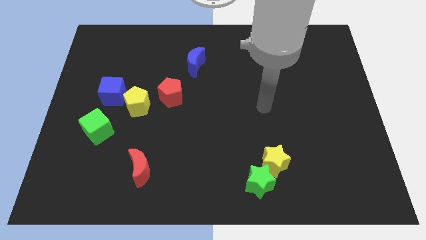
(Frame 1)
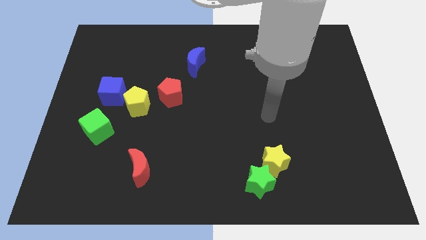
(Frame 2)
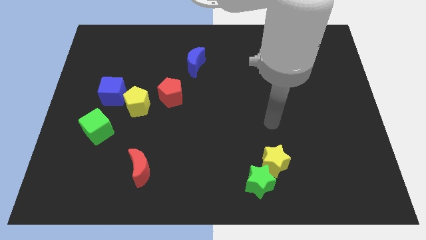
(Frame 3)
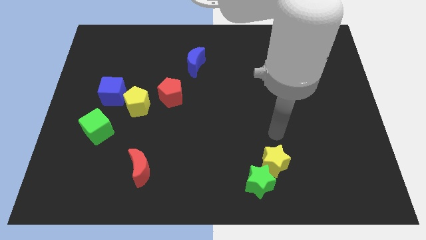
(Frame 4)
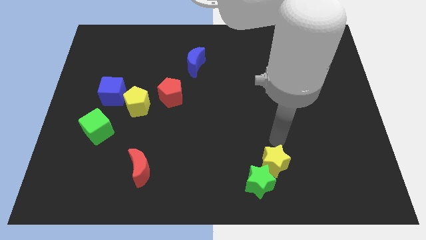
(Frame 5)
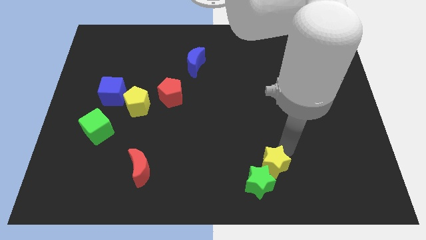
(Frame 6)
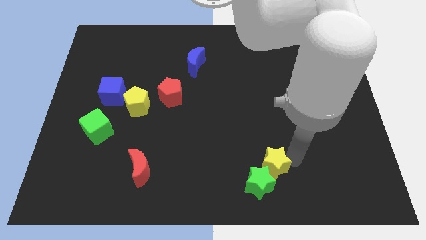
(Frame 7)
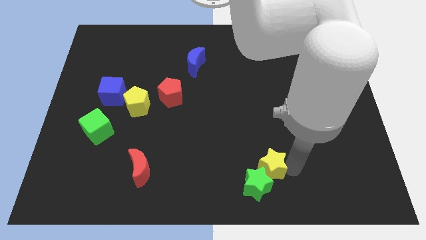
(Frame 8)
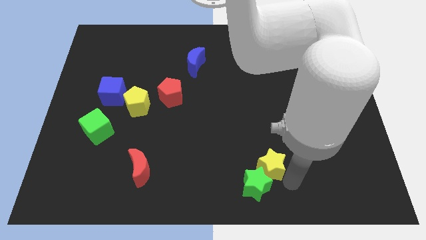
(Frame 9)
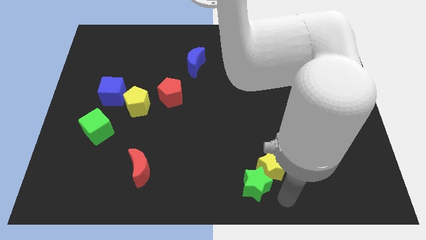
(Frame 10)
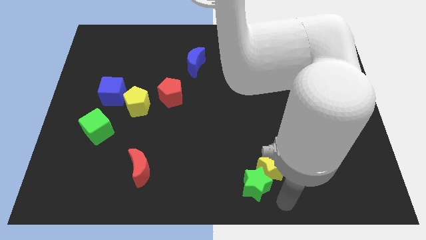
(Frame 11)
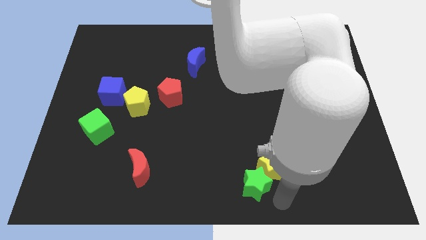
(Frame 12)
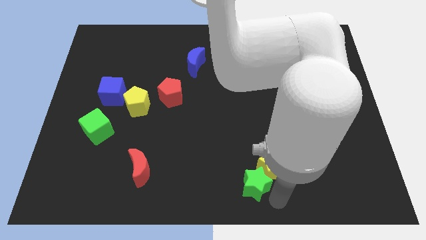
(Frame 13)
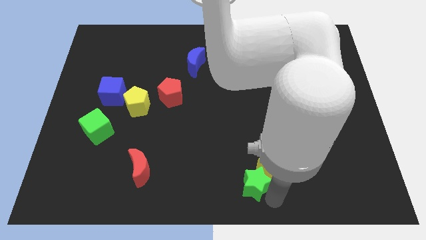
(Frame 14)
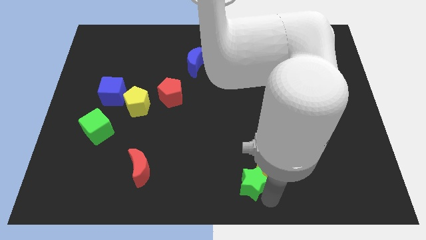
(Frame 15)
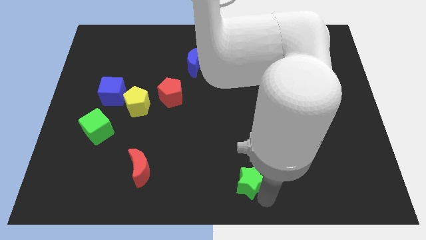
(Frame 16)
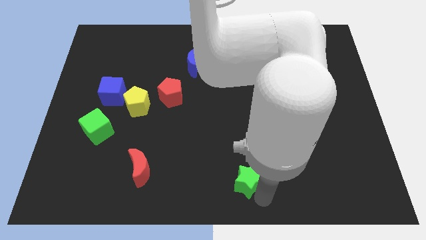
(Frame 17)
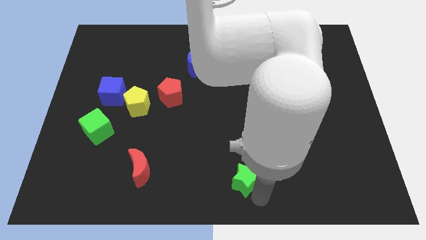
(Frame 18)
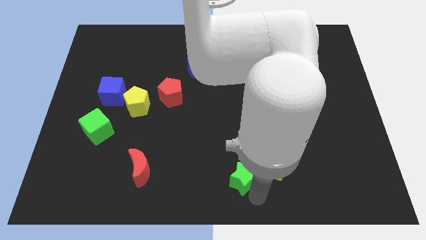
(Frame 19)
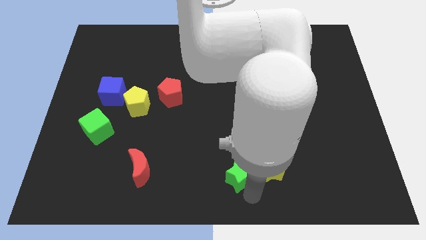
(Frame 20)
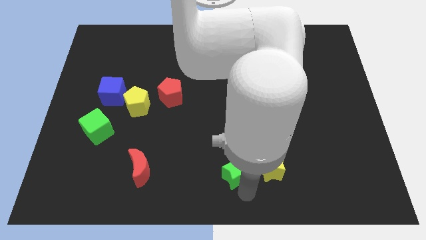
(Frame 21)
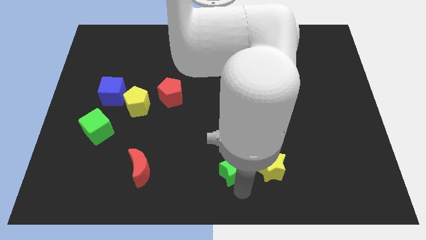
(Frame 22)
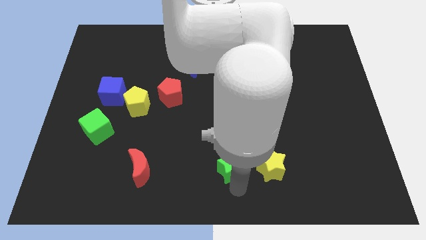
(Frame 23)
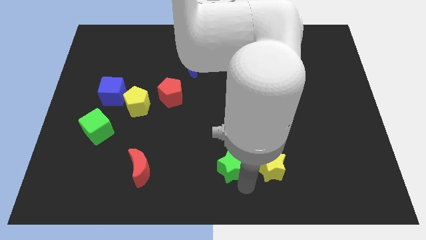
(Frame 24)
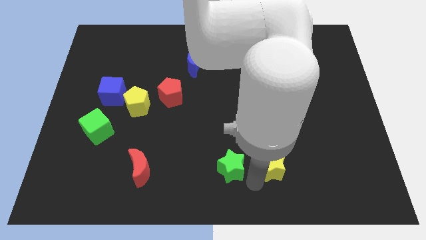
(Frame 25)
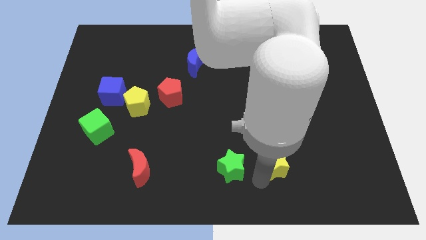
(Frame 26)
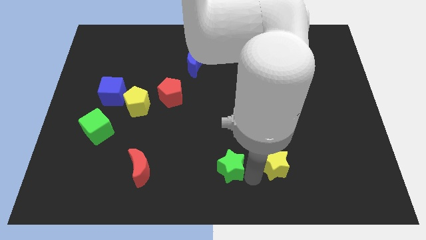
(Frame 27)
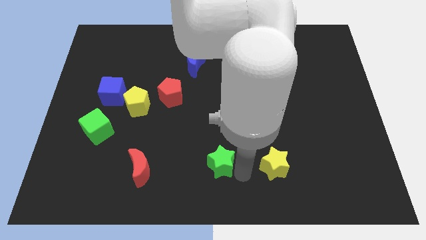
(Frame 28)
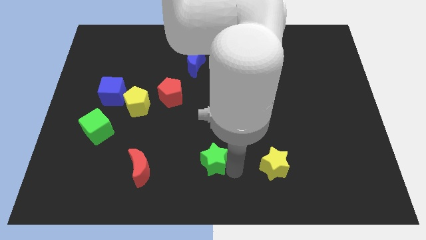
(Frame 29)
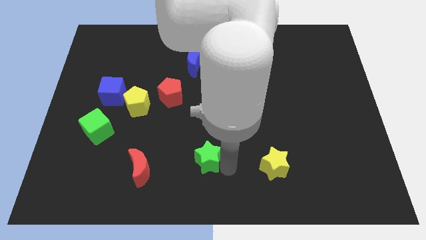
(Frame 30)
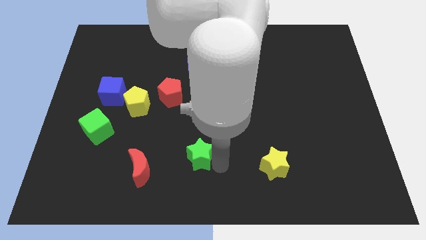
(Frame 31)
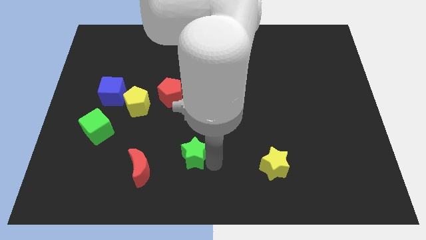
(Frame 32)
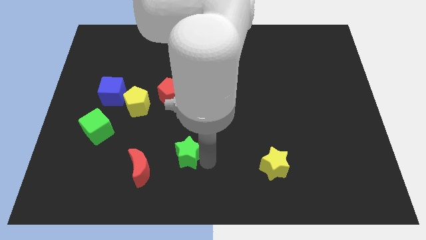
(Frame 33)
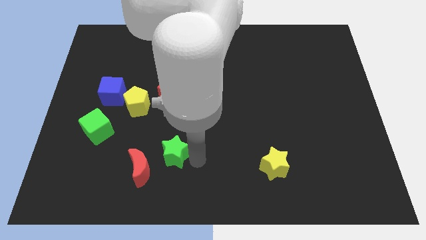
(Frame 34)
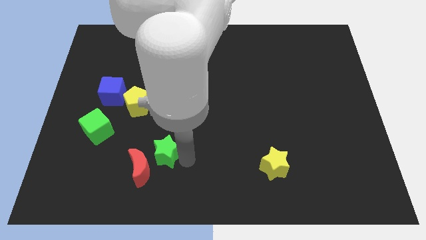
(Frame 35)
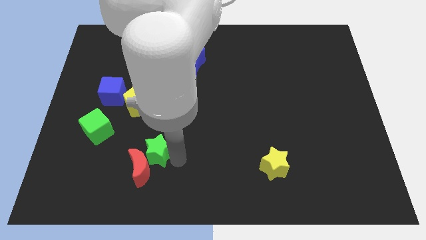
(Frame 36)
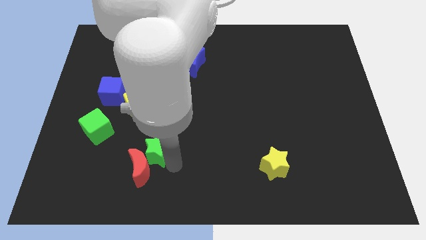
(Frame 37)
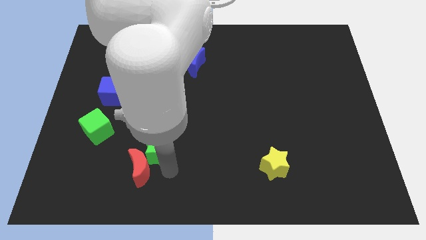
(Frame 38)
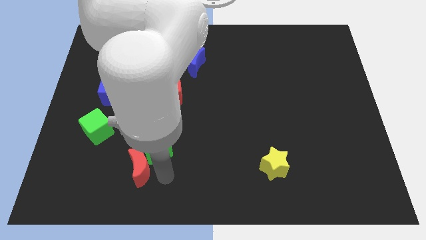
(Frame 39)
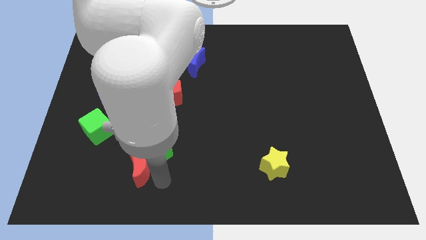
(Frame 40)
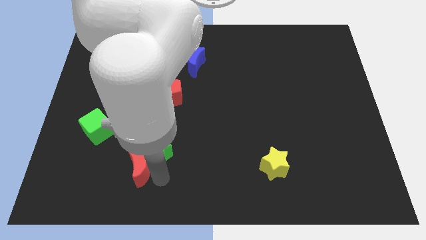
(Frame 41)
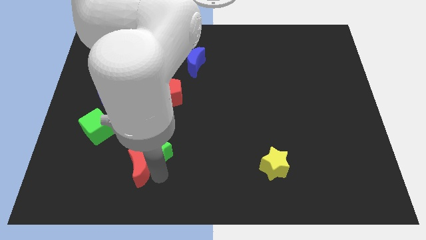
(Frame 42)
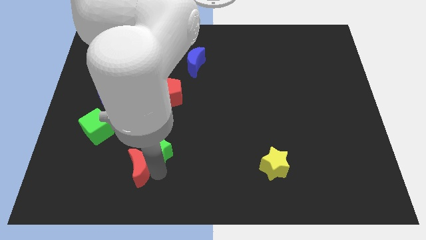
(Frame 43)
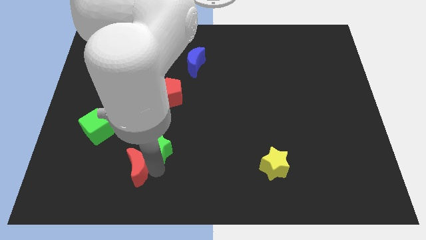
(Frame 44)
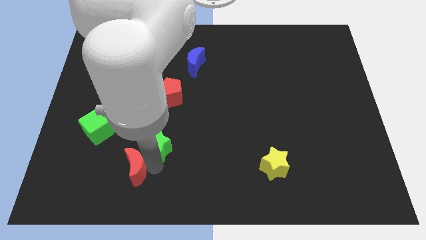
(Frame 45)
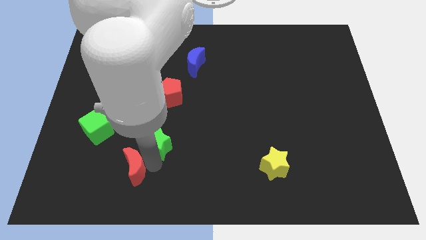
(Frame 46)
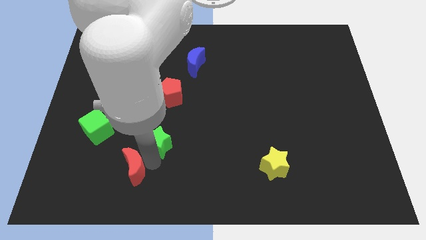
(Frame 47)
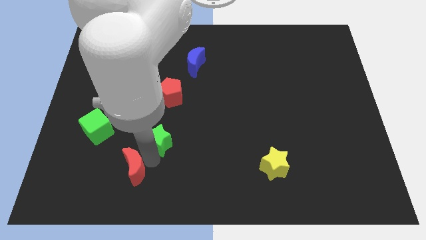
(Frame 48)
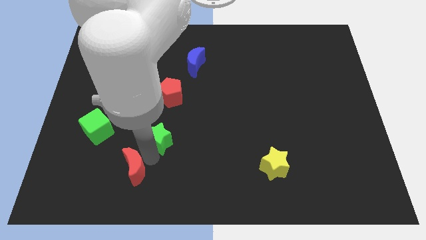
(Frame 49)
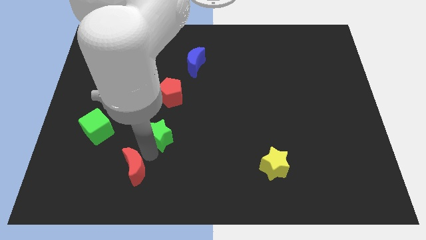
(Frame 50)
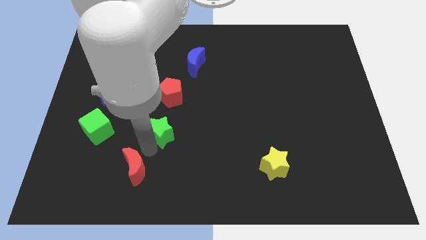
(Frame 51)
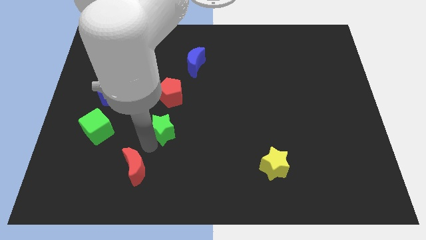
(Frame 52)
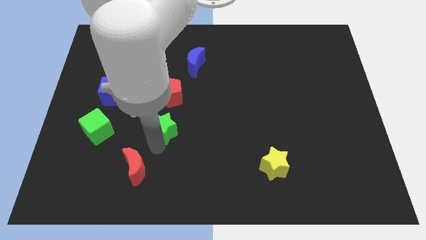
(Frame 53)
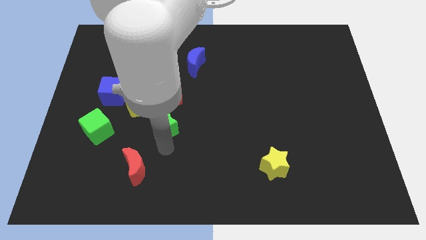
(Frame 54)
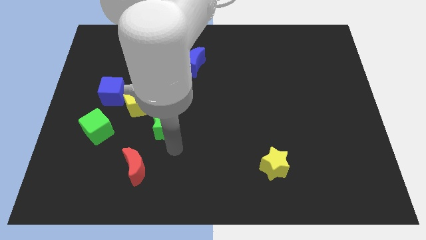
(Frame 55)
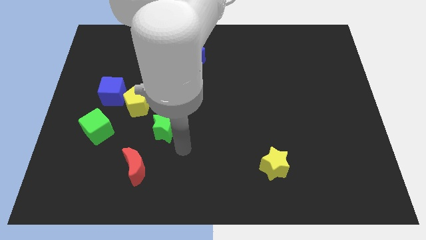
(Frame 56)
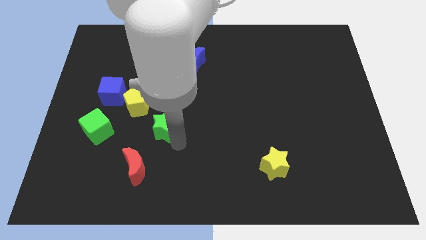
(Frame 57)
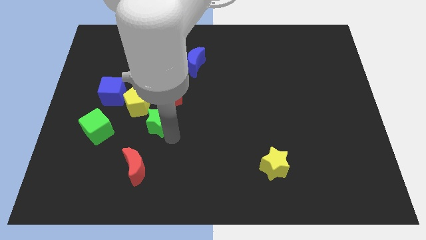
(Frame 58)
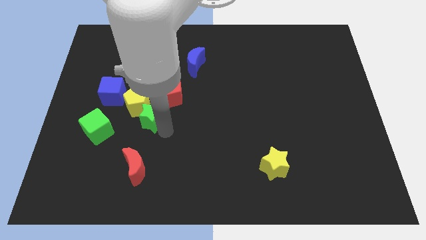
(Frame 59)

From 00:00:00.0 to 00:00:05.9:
slide the green star towards the yellow pentagon

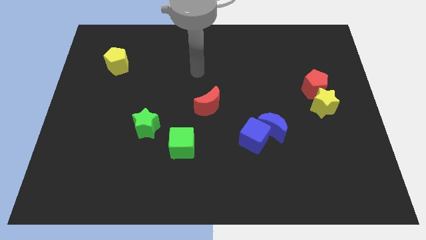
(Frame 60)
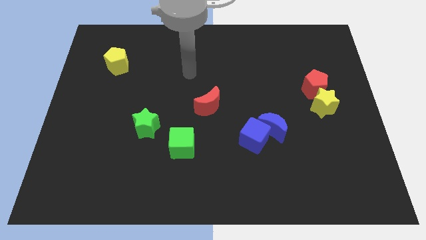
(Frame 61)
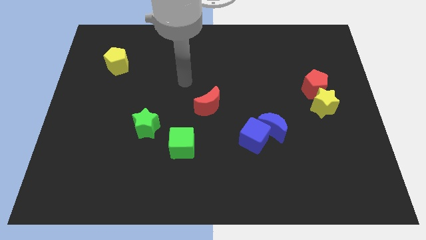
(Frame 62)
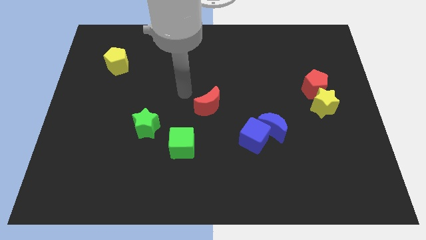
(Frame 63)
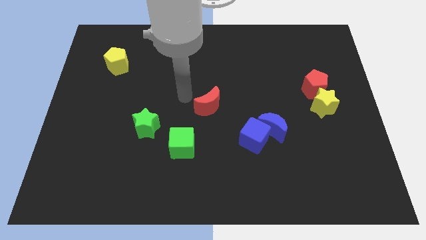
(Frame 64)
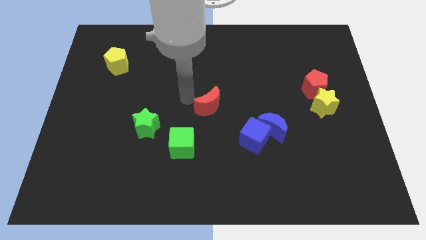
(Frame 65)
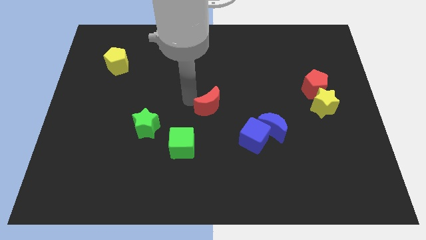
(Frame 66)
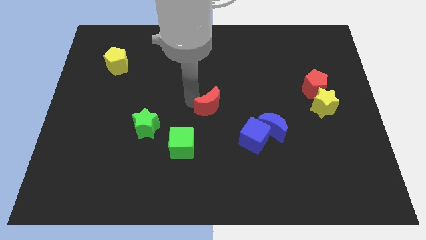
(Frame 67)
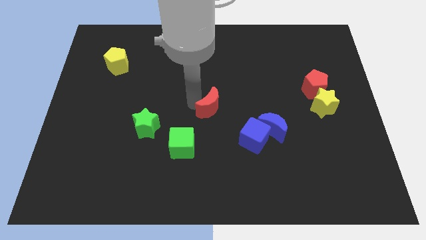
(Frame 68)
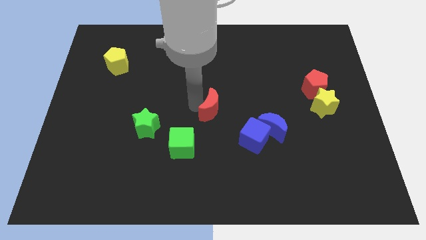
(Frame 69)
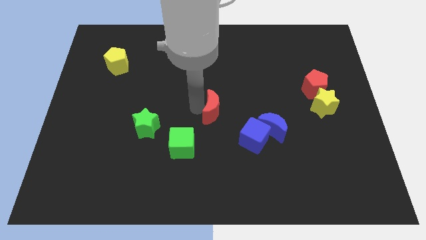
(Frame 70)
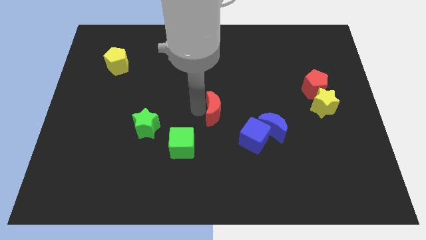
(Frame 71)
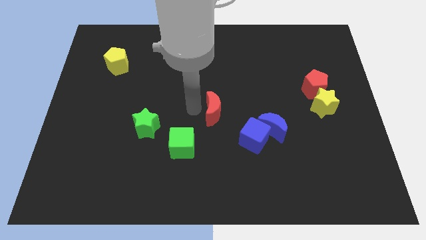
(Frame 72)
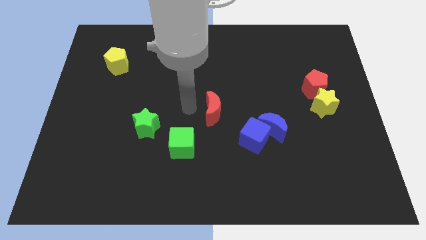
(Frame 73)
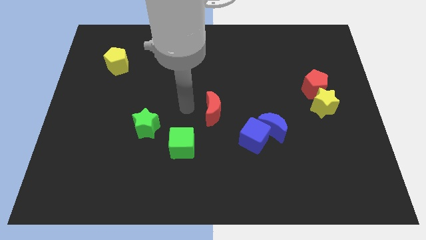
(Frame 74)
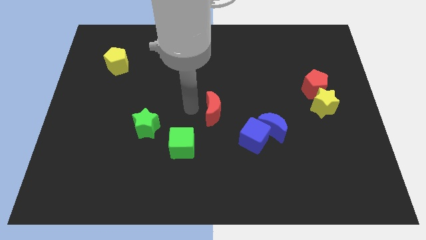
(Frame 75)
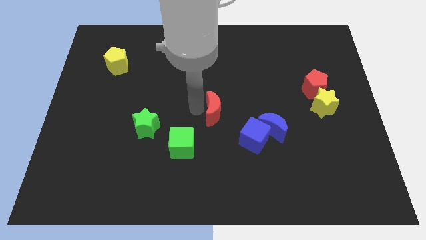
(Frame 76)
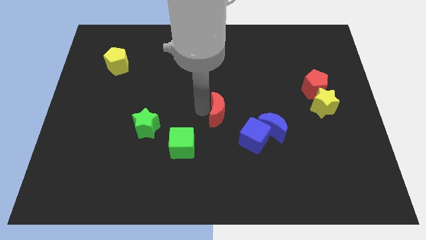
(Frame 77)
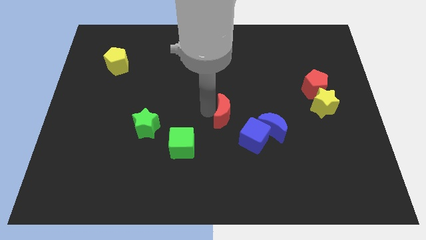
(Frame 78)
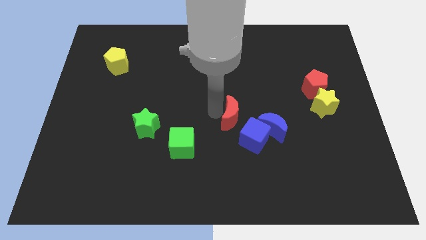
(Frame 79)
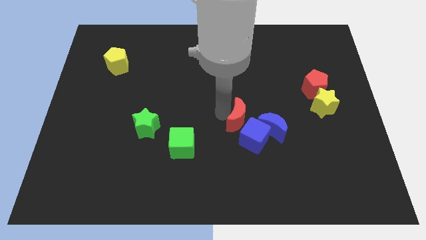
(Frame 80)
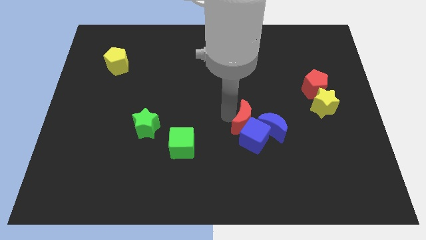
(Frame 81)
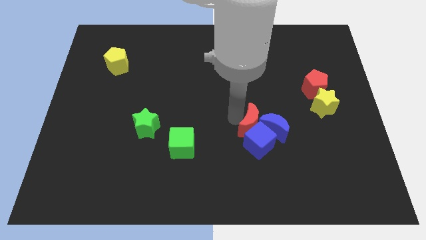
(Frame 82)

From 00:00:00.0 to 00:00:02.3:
push the red moon to the blue moon
